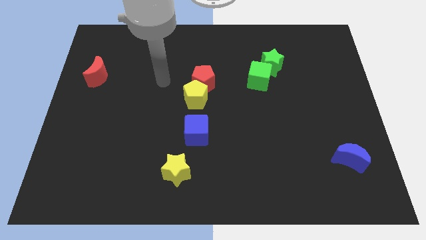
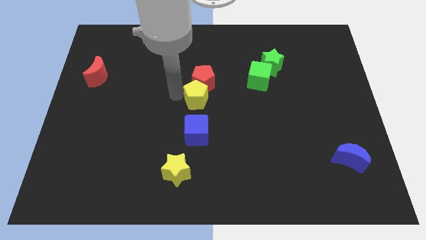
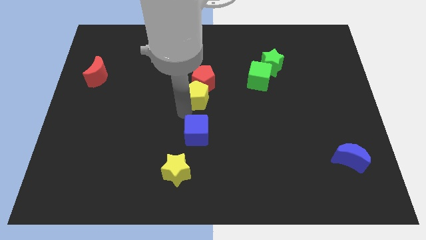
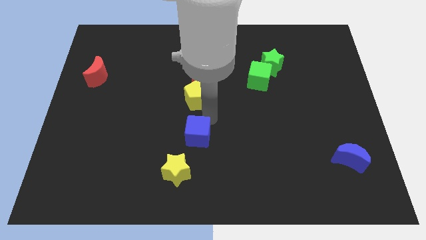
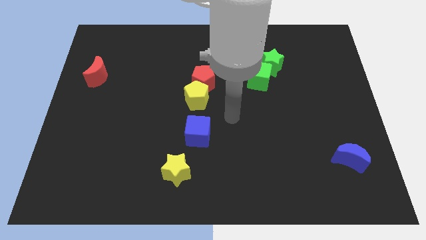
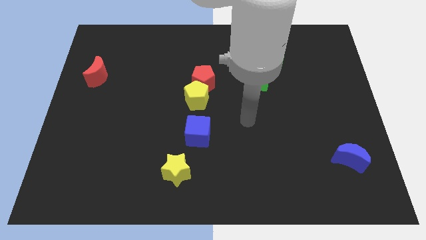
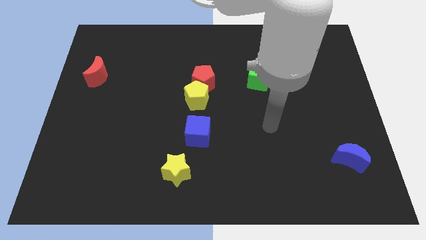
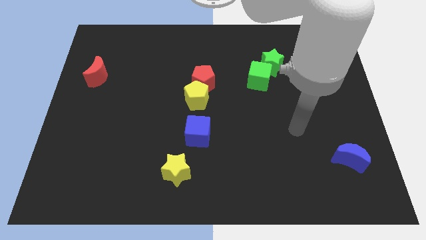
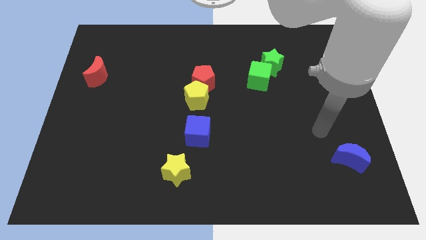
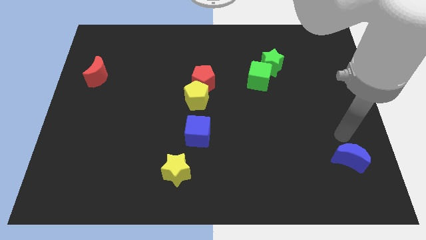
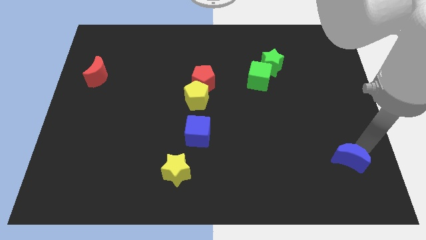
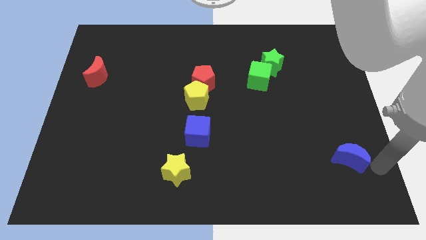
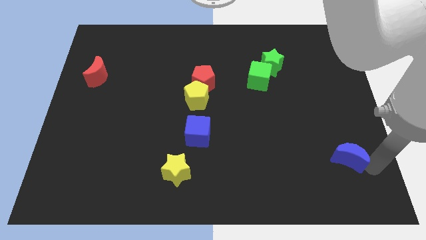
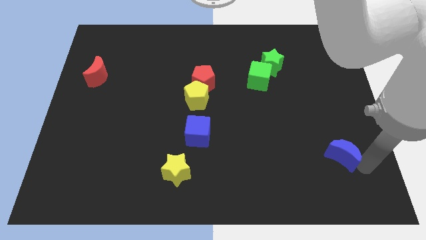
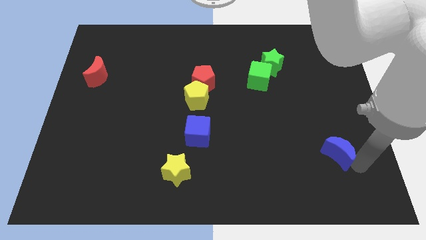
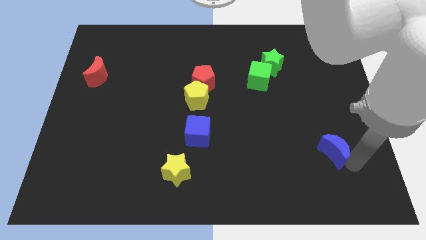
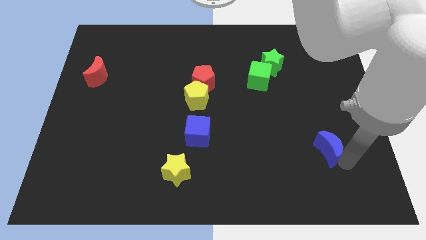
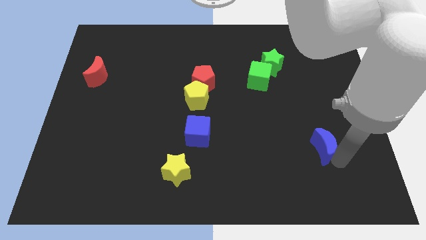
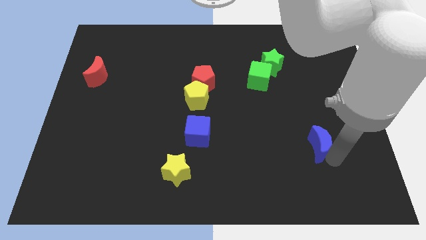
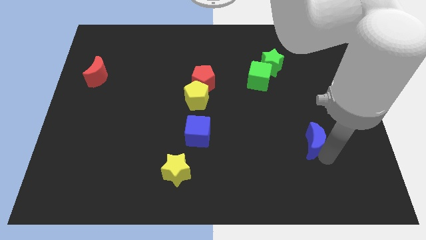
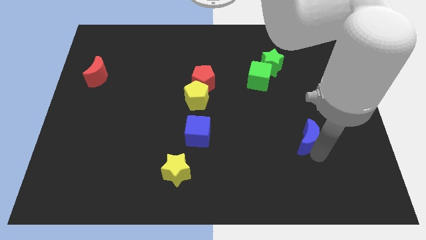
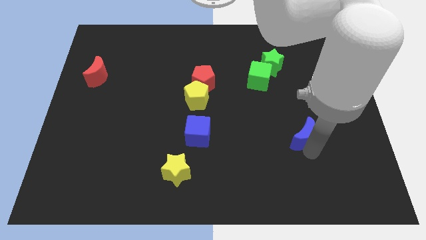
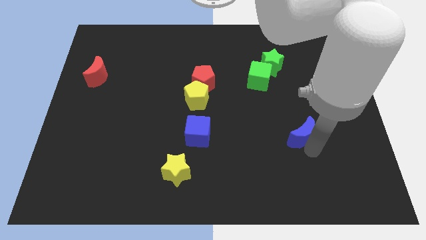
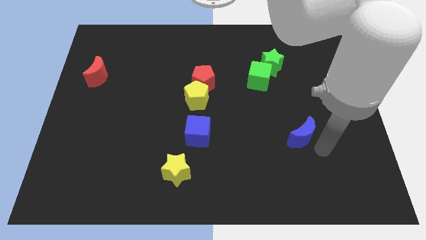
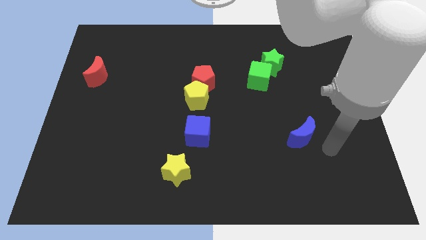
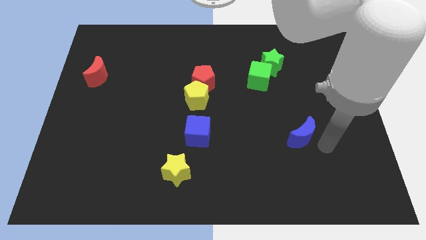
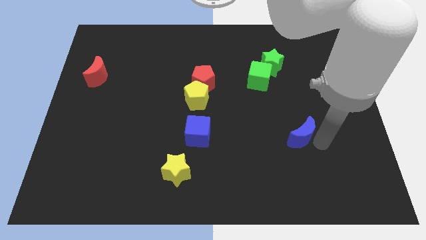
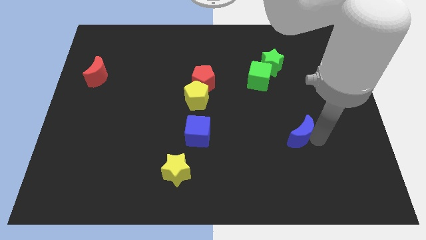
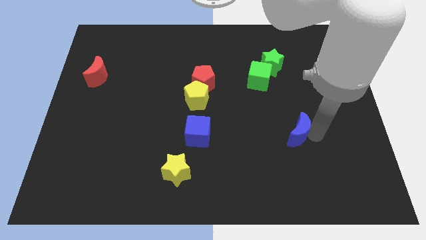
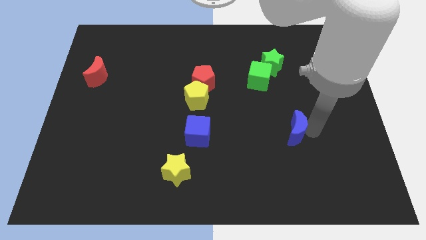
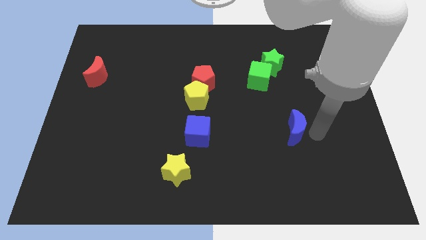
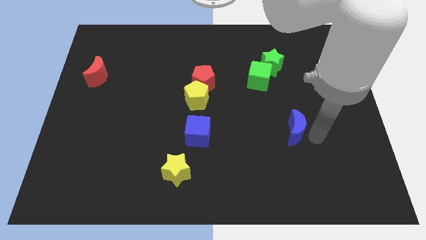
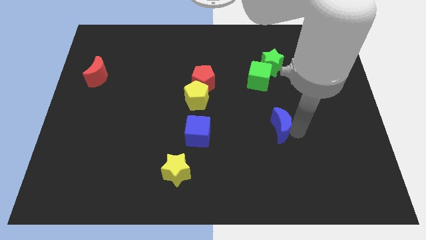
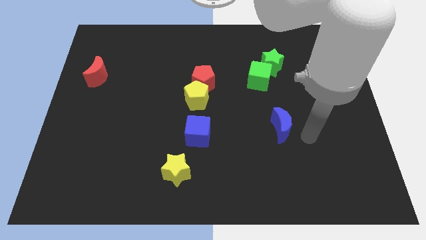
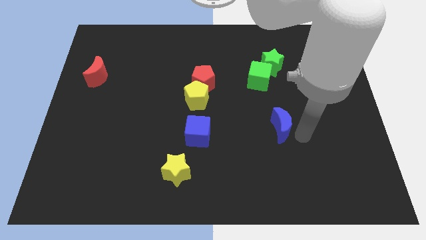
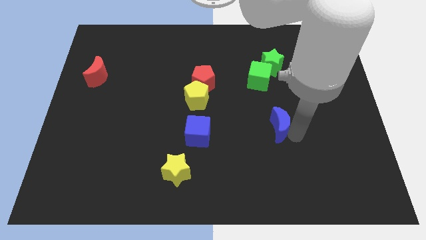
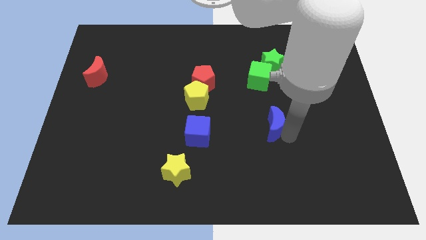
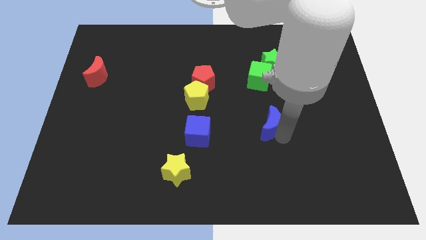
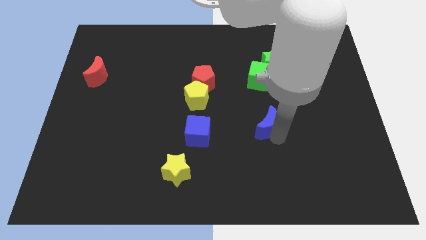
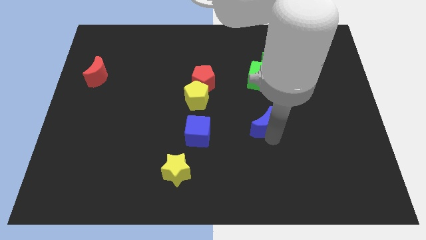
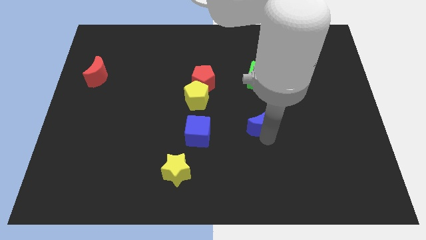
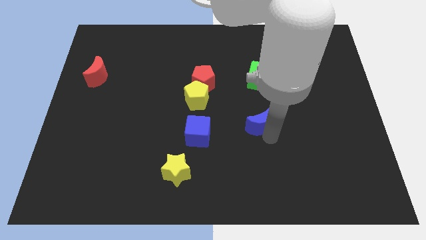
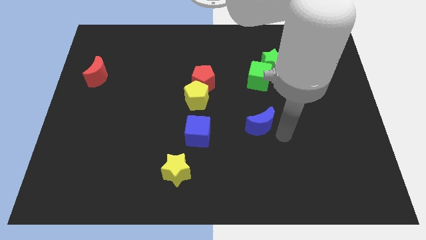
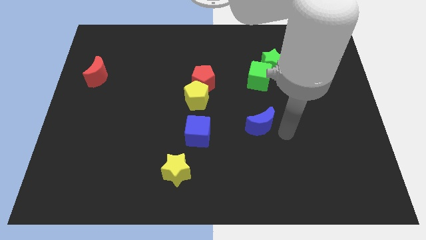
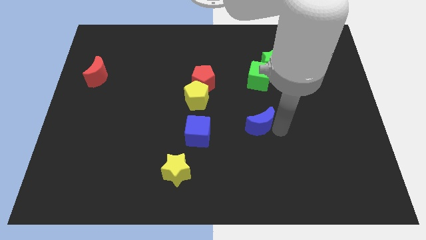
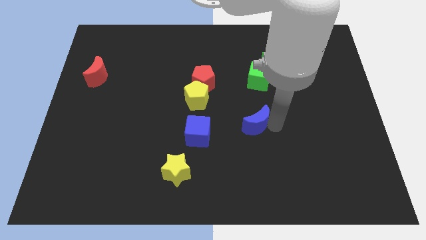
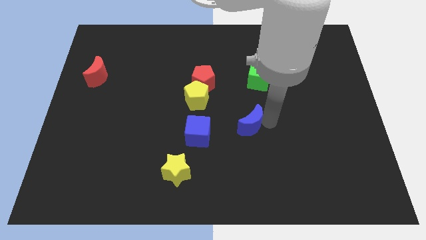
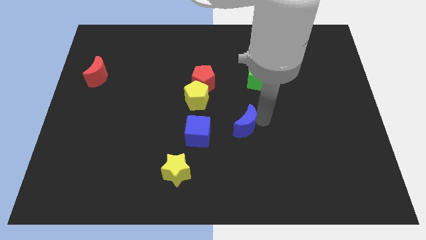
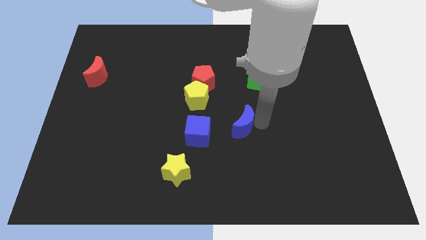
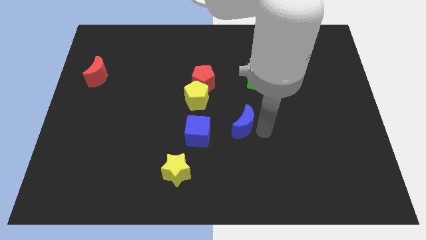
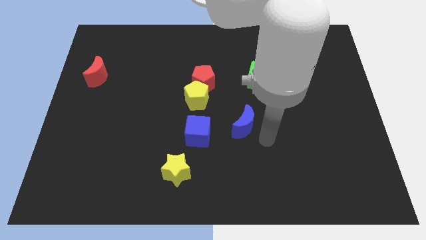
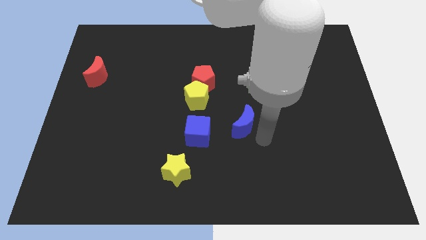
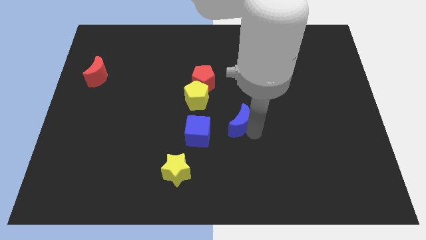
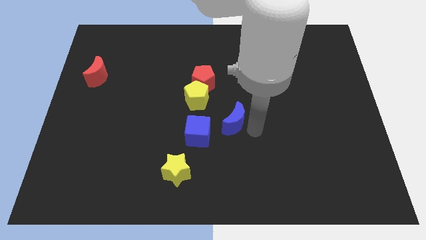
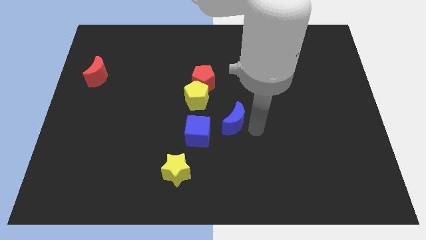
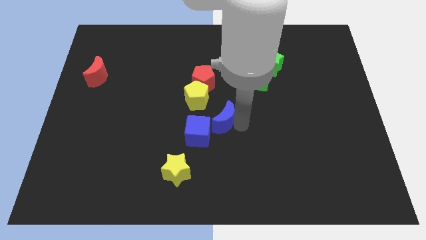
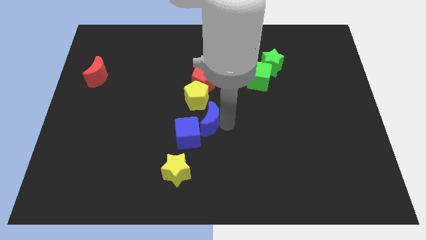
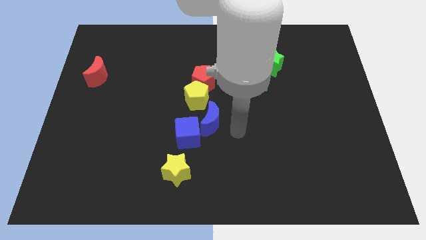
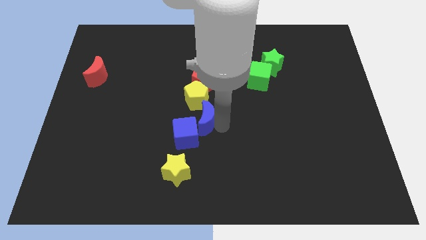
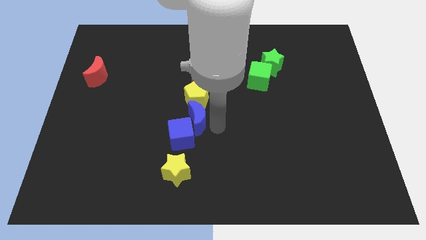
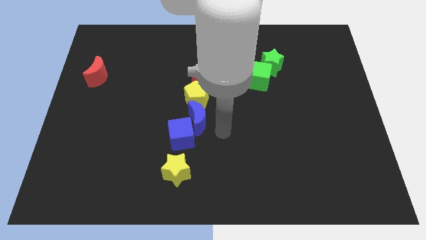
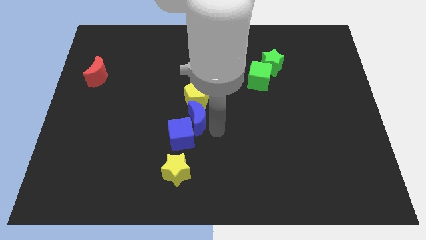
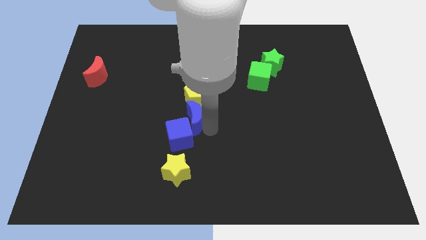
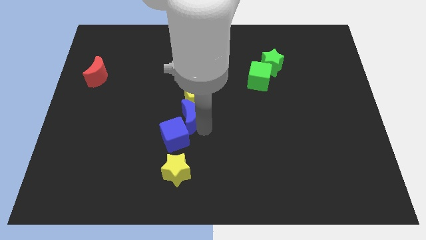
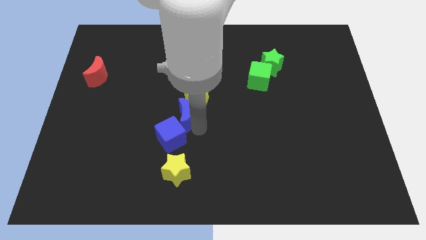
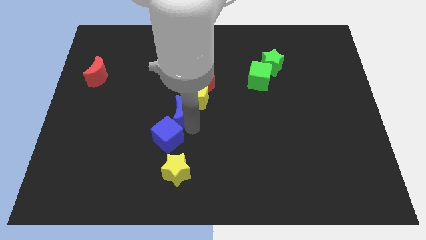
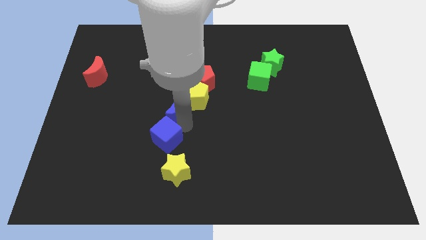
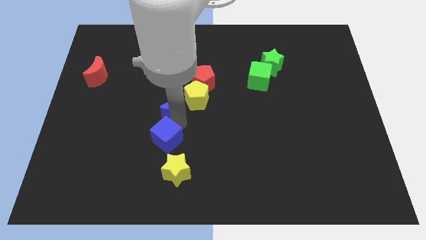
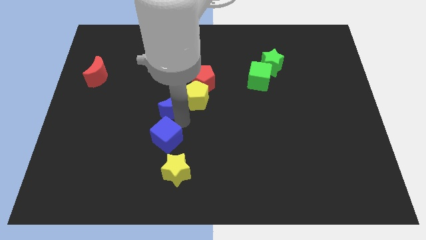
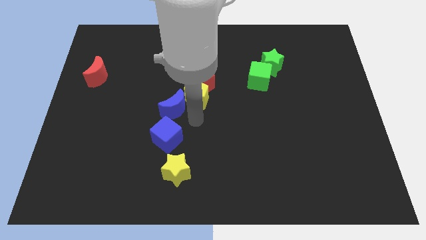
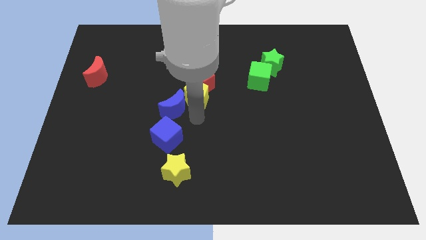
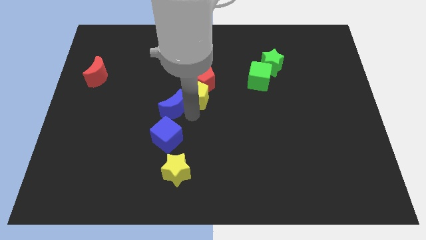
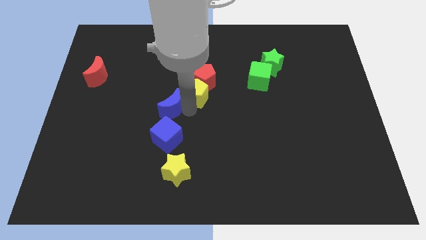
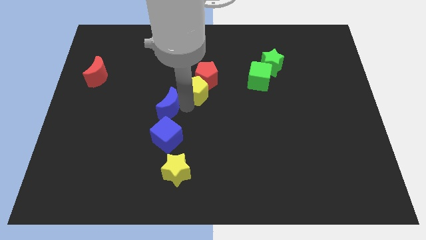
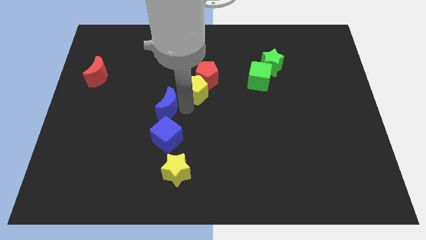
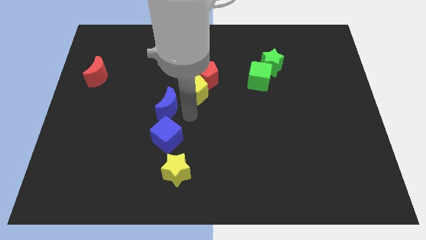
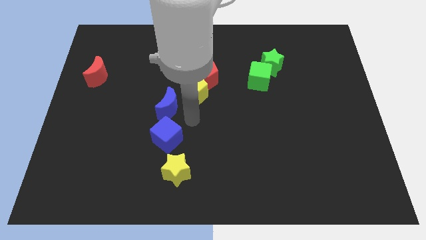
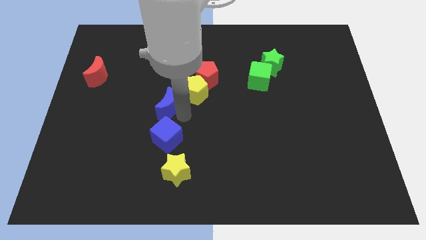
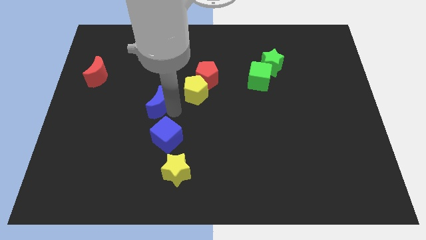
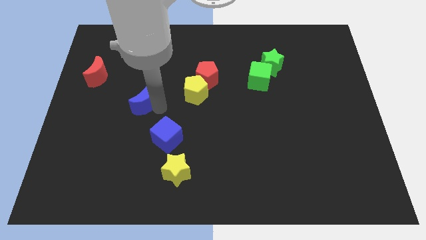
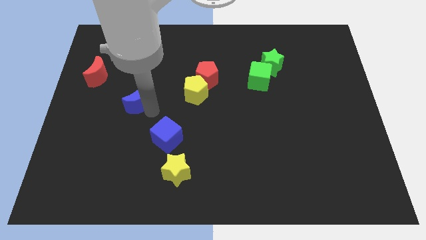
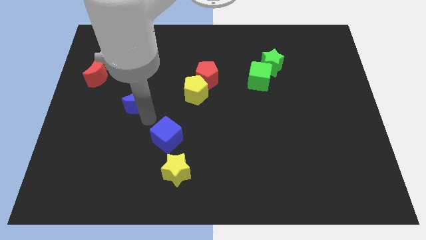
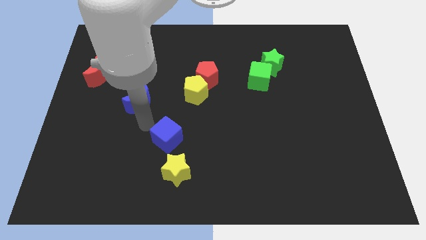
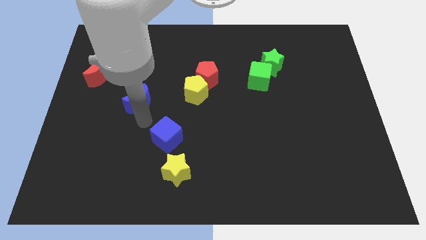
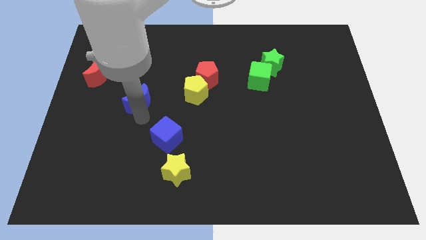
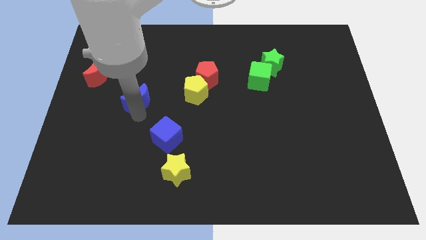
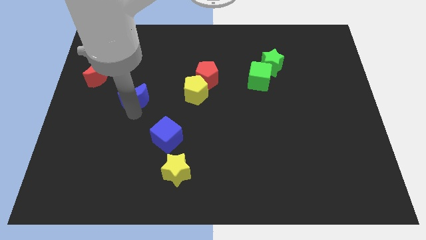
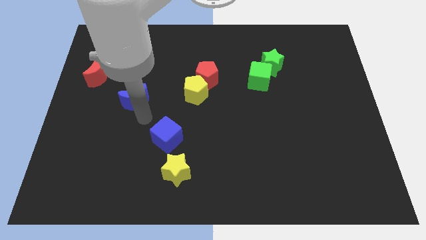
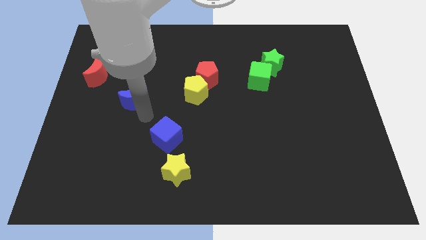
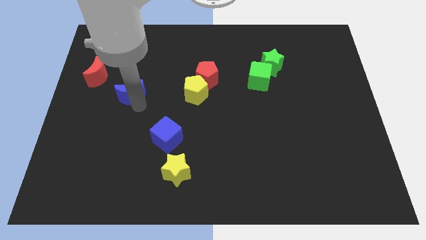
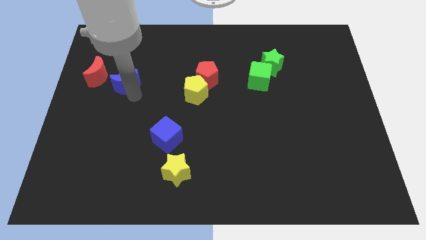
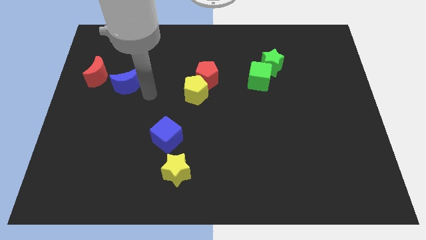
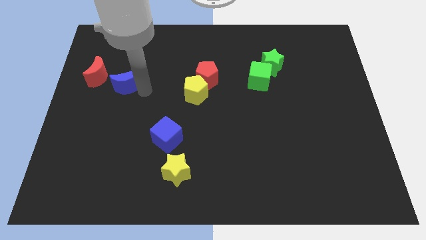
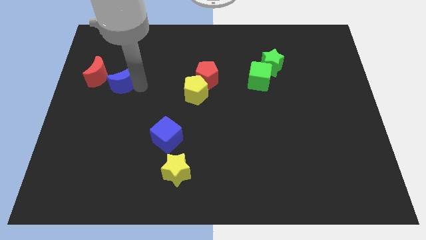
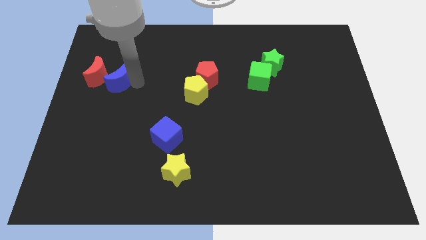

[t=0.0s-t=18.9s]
push the blue moon towards the red moon
